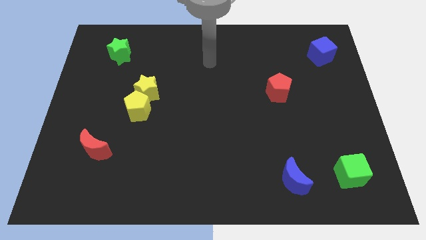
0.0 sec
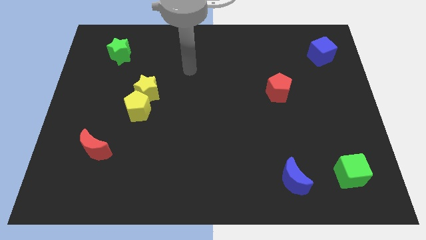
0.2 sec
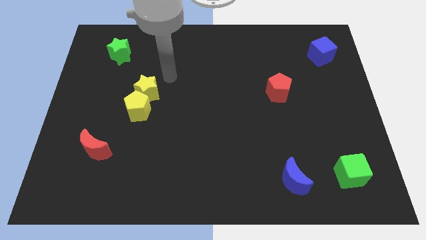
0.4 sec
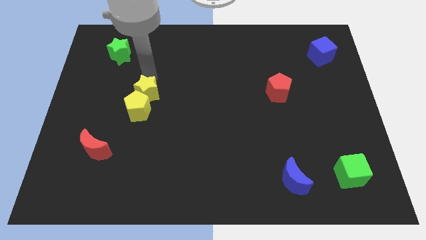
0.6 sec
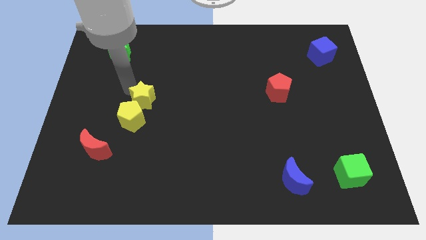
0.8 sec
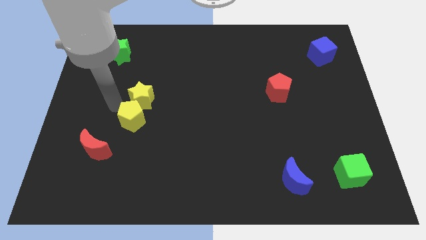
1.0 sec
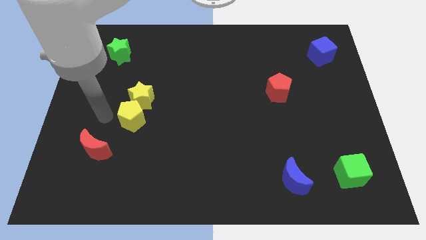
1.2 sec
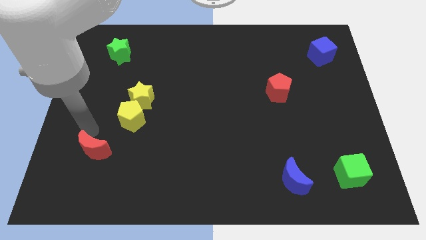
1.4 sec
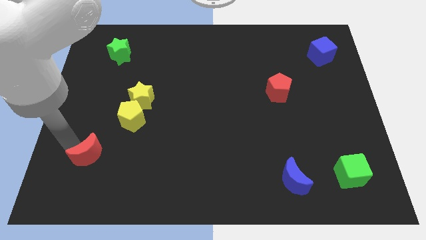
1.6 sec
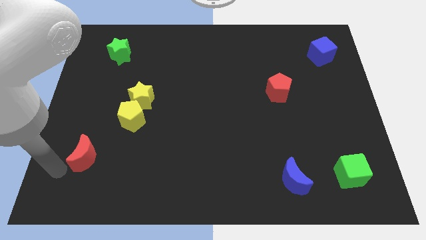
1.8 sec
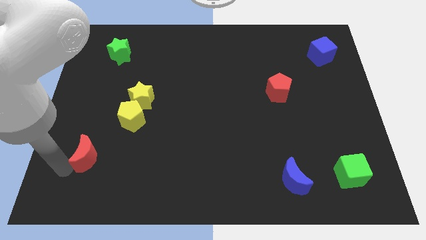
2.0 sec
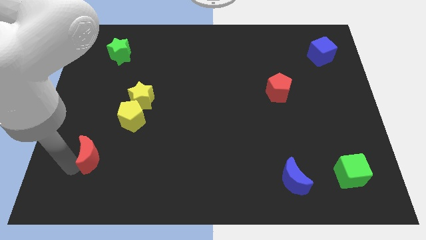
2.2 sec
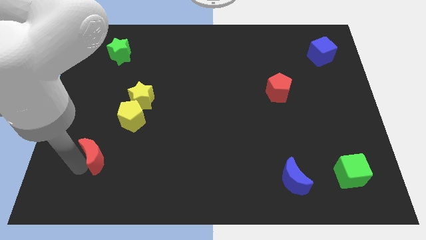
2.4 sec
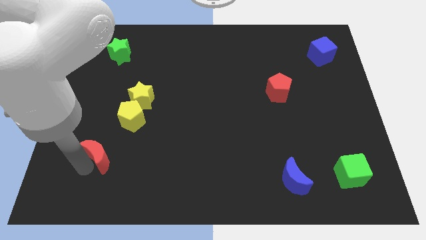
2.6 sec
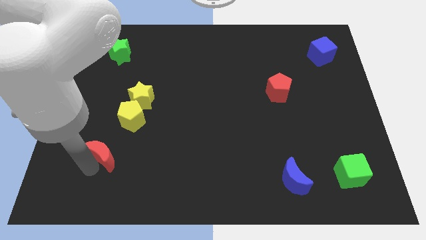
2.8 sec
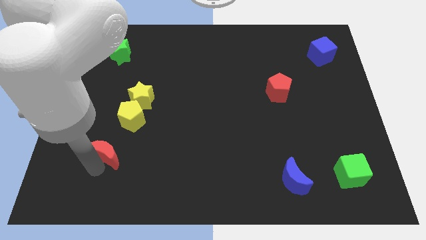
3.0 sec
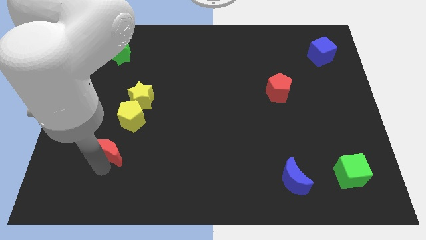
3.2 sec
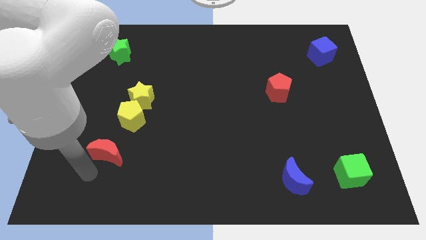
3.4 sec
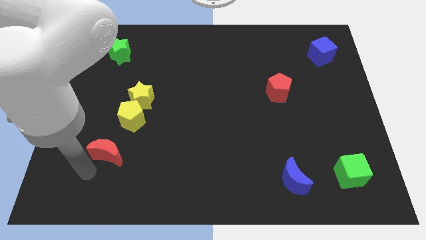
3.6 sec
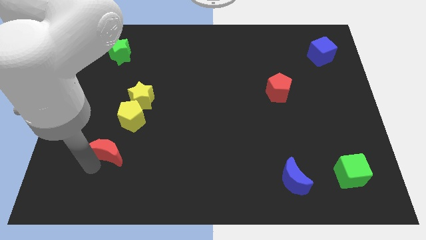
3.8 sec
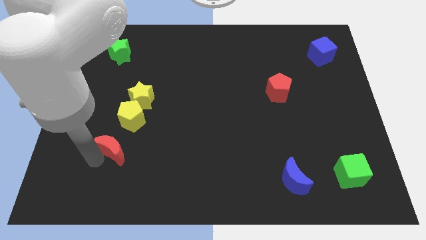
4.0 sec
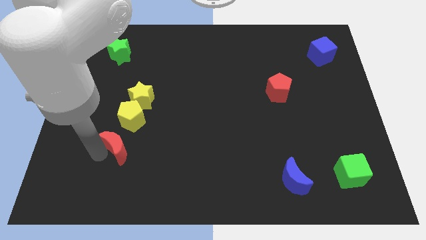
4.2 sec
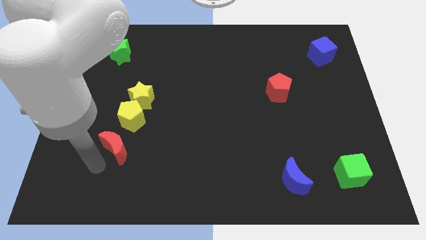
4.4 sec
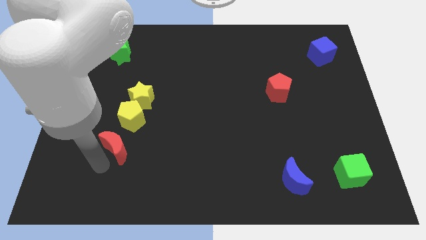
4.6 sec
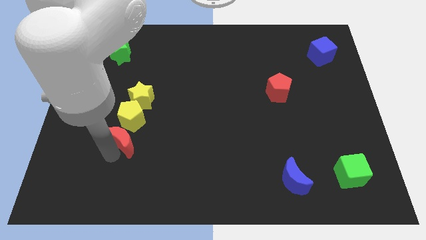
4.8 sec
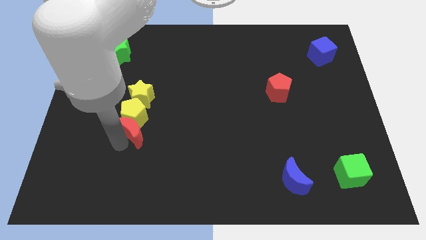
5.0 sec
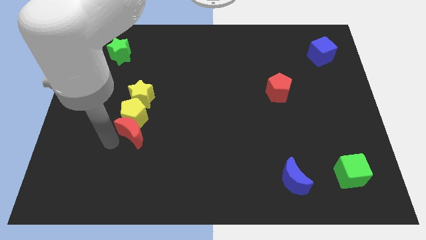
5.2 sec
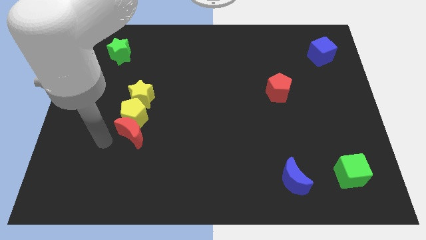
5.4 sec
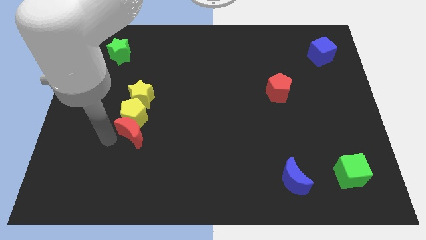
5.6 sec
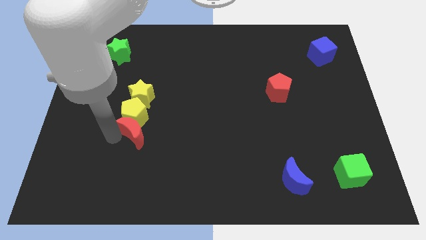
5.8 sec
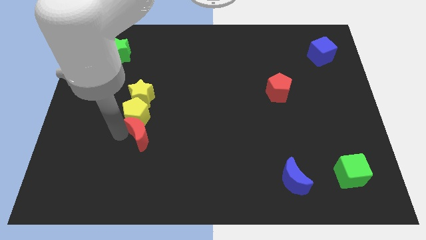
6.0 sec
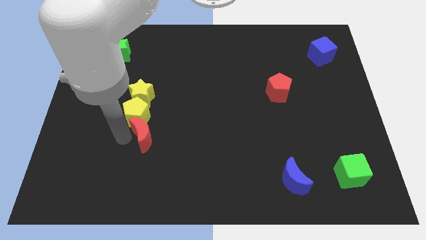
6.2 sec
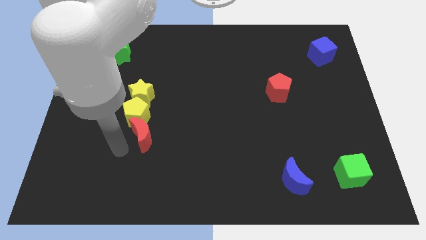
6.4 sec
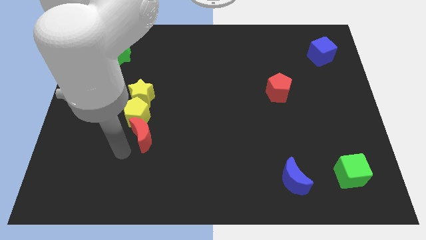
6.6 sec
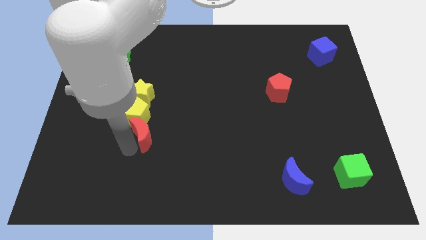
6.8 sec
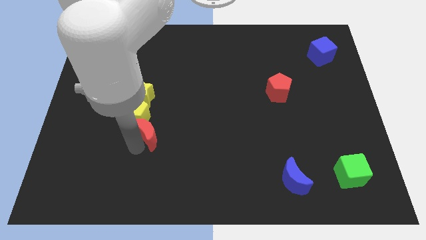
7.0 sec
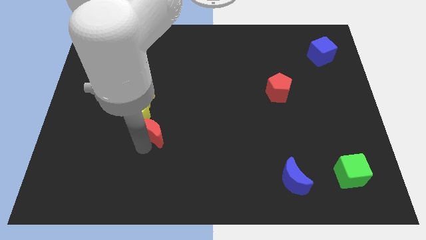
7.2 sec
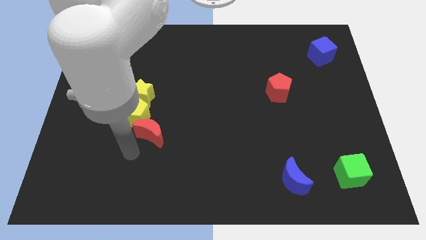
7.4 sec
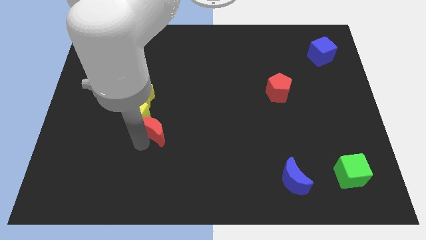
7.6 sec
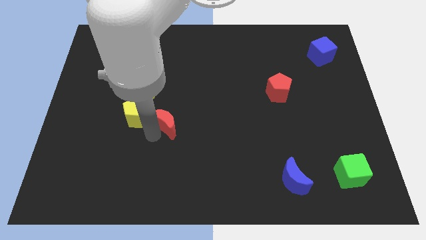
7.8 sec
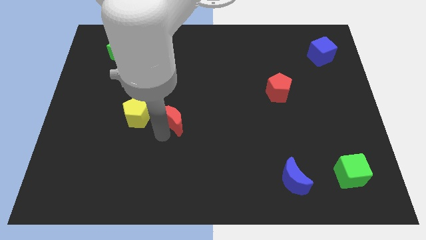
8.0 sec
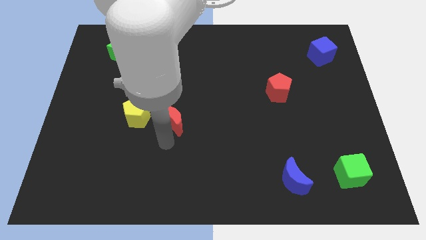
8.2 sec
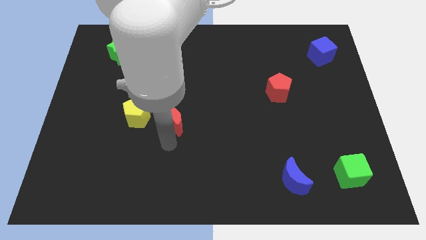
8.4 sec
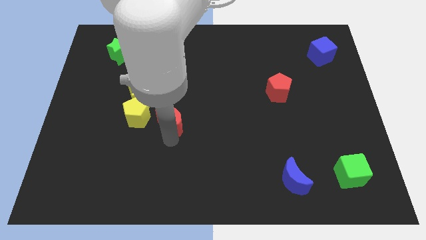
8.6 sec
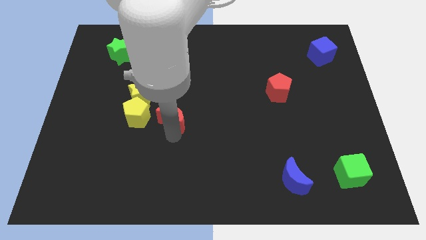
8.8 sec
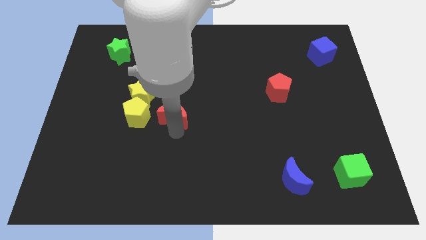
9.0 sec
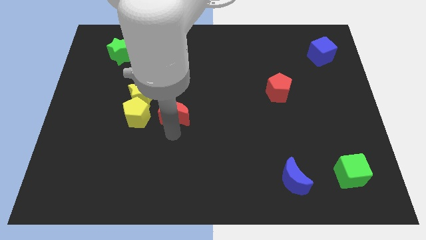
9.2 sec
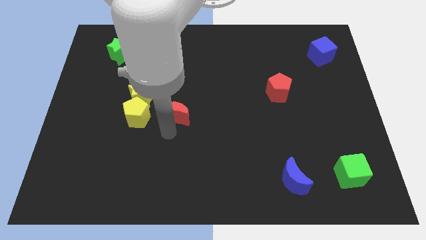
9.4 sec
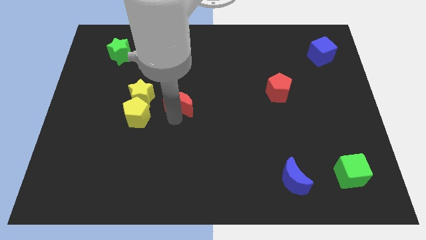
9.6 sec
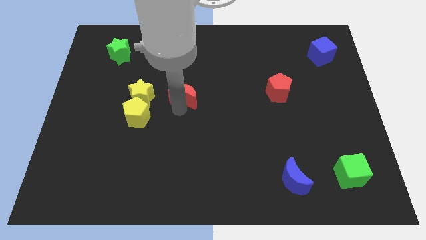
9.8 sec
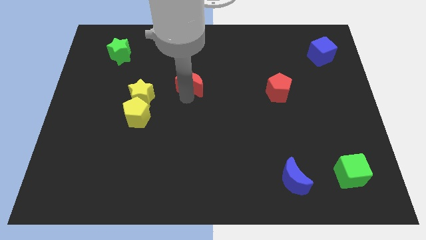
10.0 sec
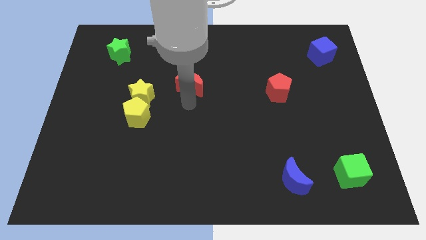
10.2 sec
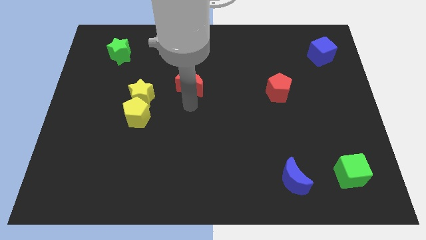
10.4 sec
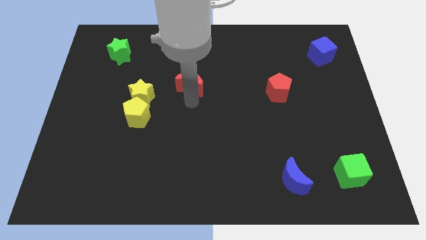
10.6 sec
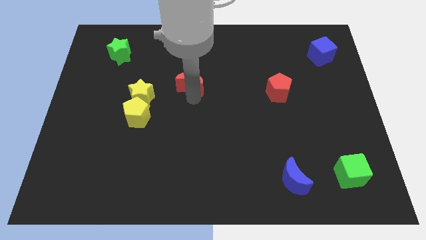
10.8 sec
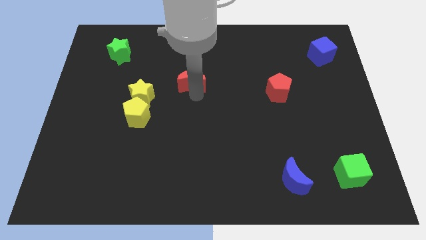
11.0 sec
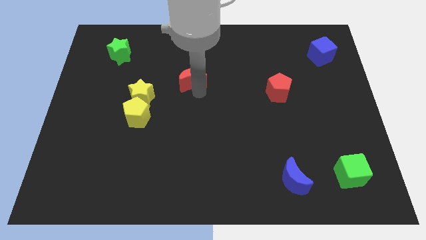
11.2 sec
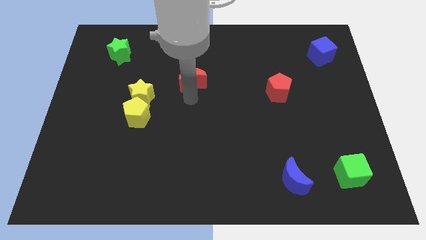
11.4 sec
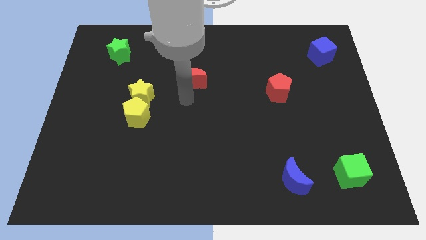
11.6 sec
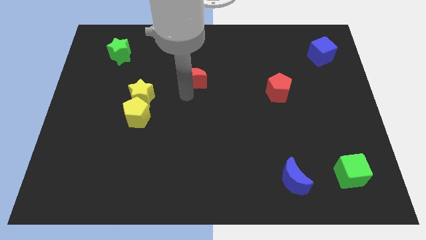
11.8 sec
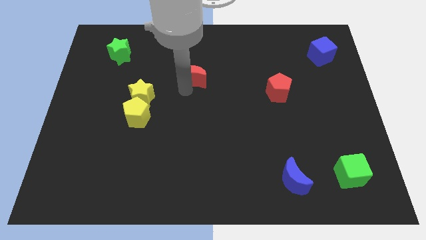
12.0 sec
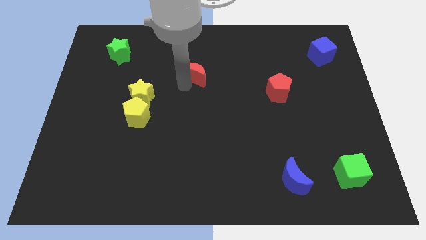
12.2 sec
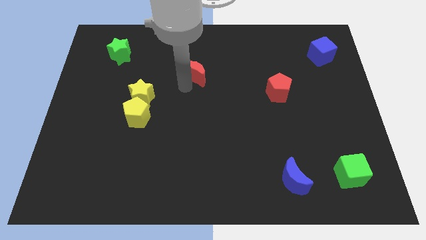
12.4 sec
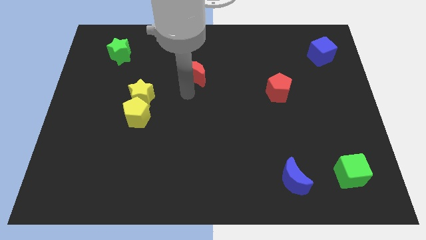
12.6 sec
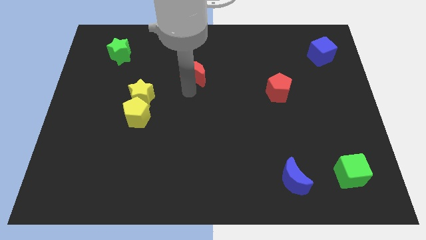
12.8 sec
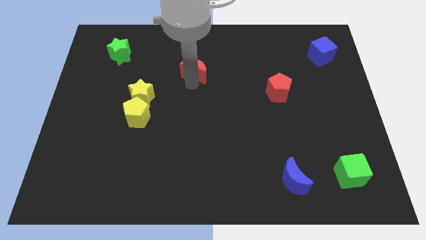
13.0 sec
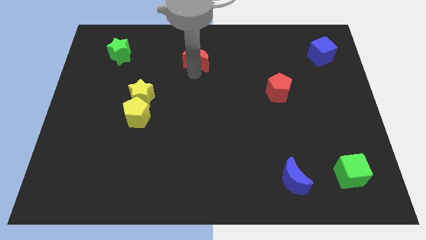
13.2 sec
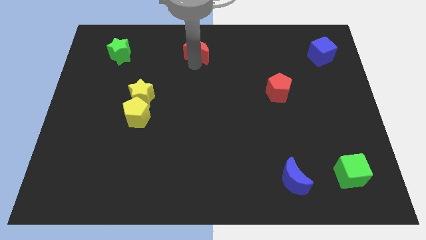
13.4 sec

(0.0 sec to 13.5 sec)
push the red moon to the top side
